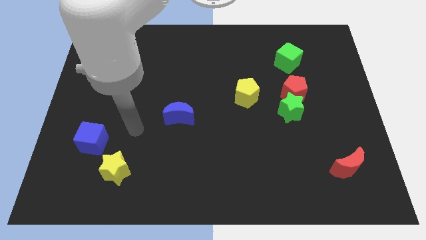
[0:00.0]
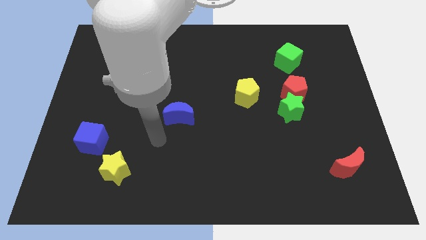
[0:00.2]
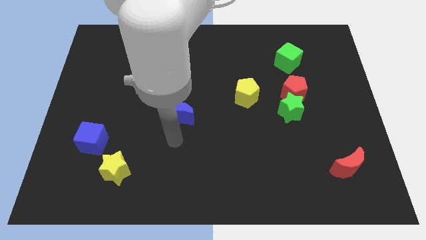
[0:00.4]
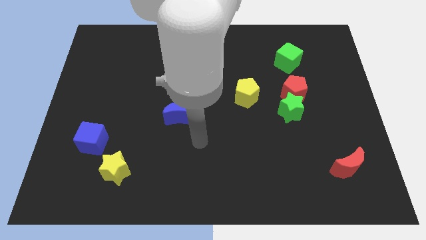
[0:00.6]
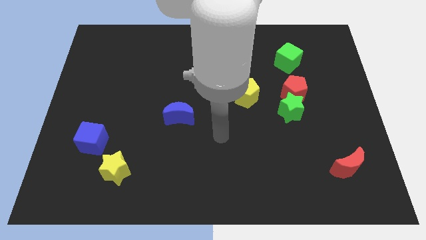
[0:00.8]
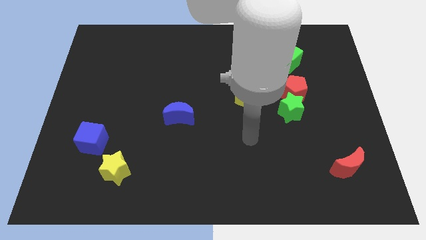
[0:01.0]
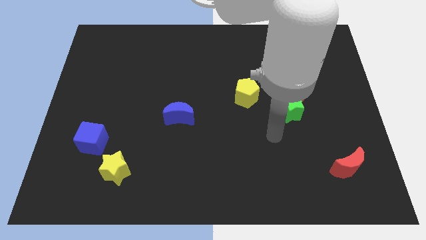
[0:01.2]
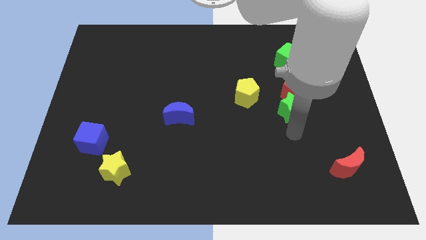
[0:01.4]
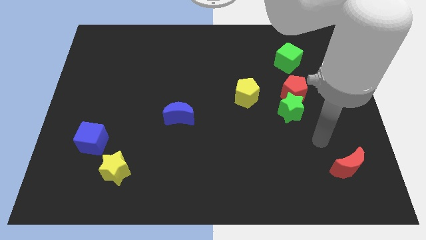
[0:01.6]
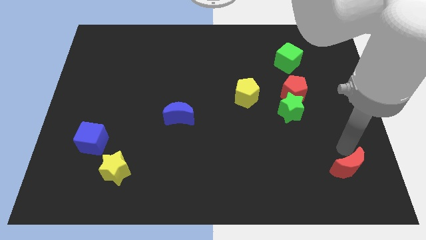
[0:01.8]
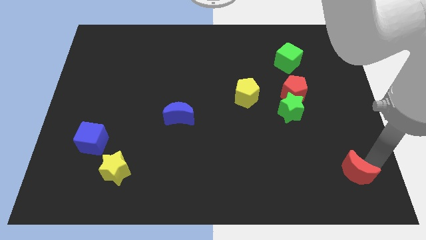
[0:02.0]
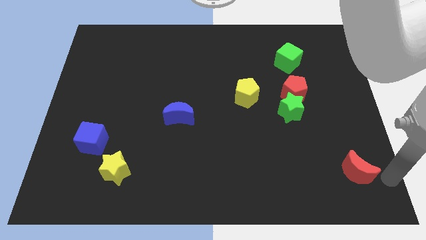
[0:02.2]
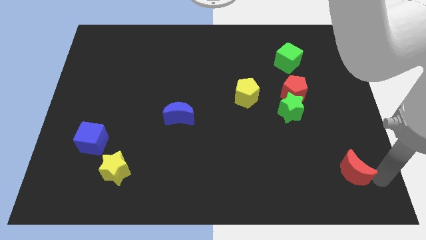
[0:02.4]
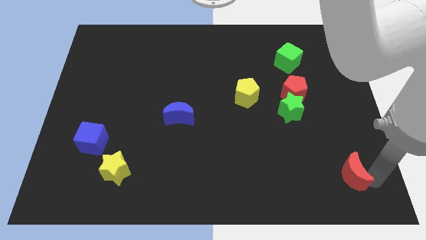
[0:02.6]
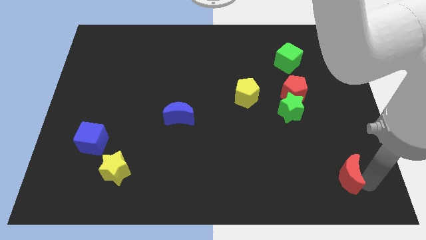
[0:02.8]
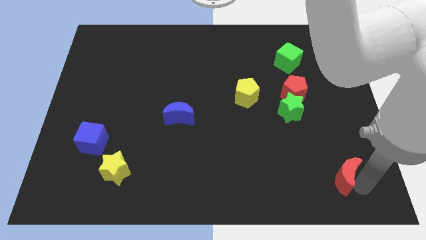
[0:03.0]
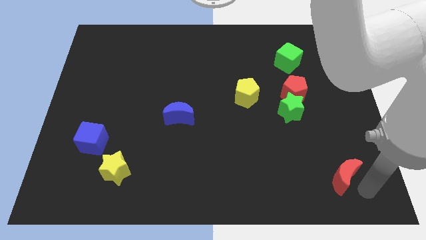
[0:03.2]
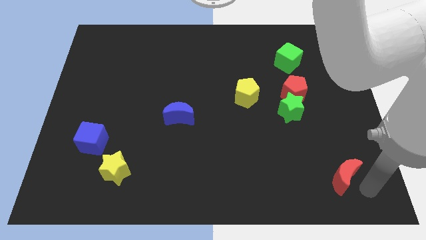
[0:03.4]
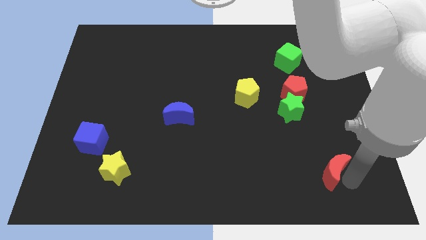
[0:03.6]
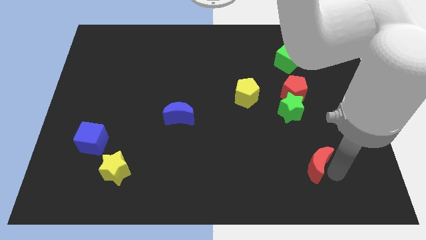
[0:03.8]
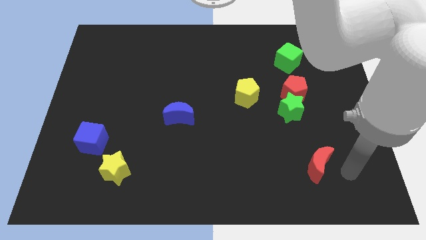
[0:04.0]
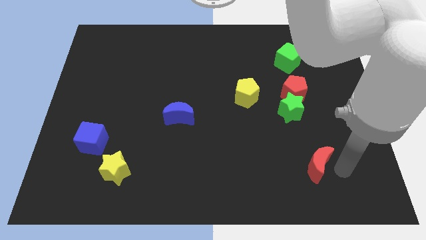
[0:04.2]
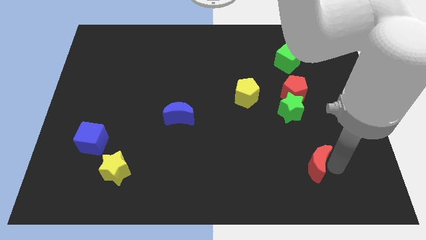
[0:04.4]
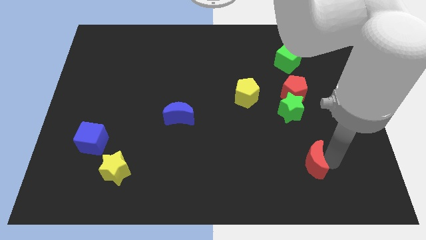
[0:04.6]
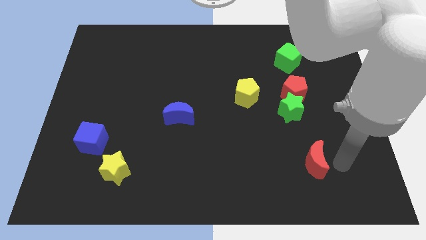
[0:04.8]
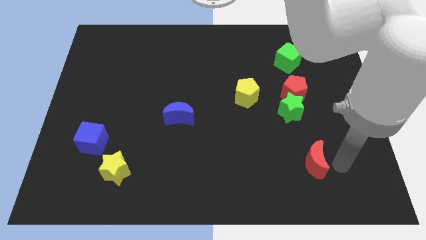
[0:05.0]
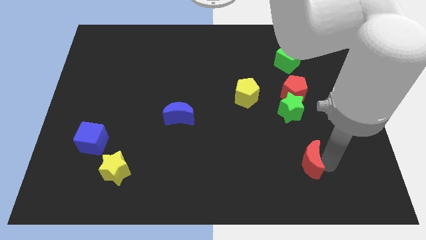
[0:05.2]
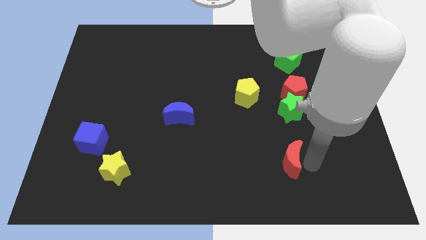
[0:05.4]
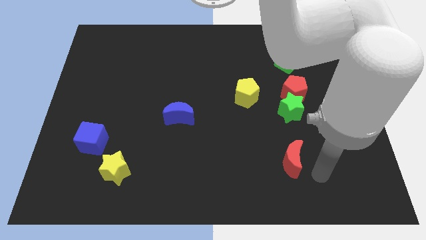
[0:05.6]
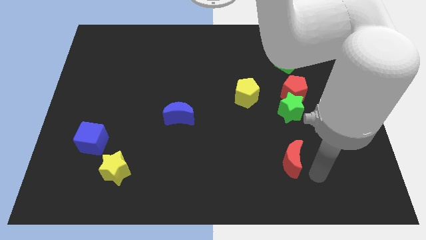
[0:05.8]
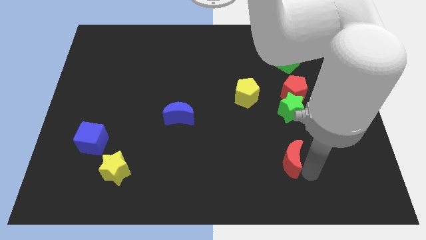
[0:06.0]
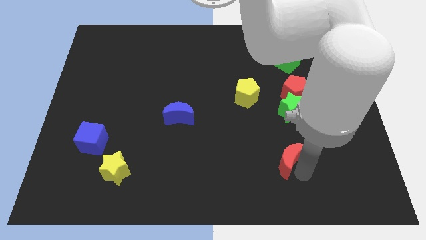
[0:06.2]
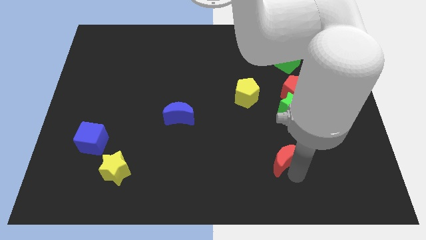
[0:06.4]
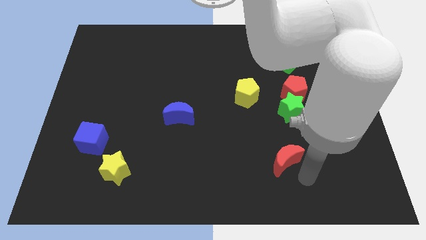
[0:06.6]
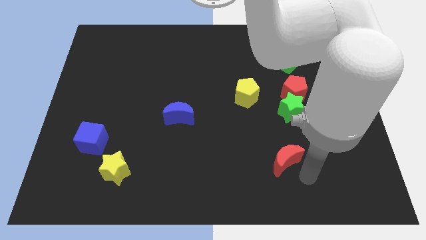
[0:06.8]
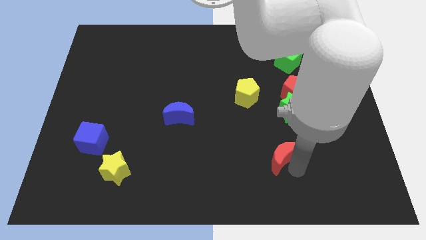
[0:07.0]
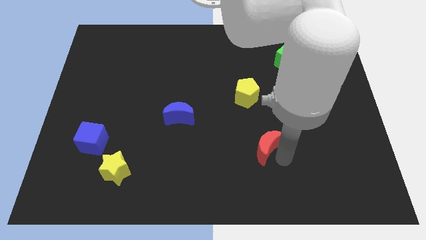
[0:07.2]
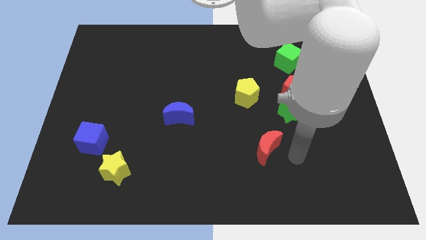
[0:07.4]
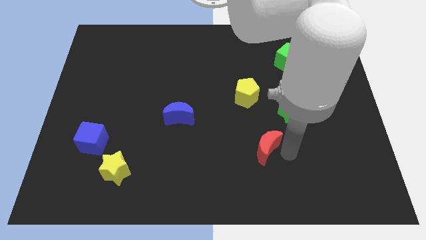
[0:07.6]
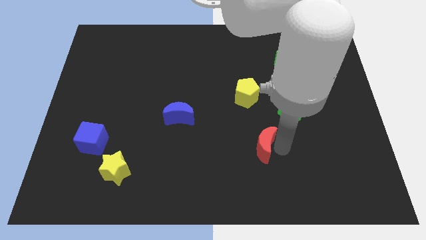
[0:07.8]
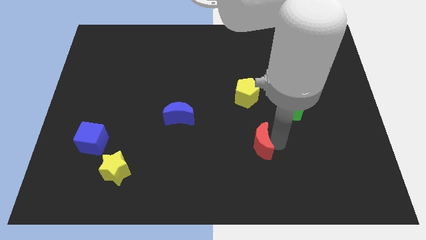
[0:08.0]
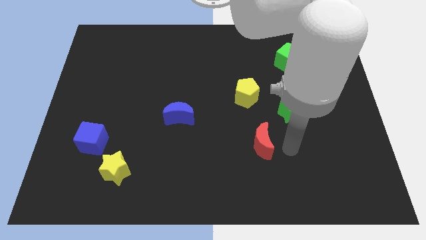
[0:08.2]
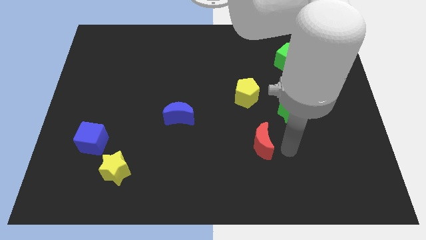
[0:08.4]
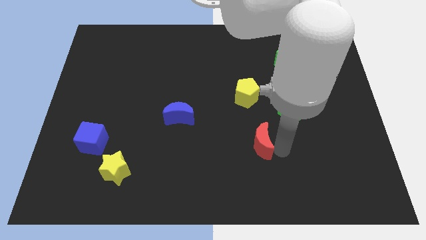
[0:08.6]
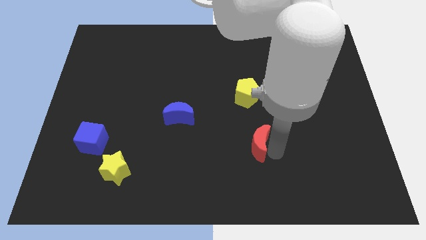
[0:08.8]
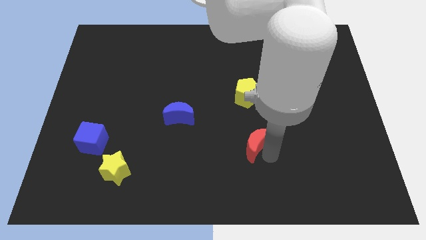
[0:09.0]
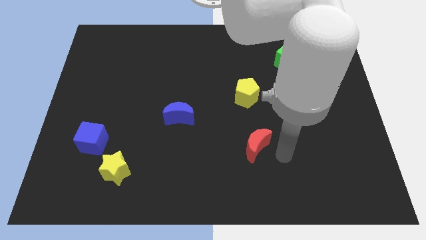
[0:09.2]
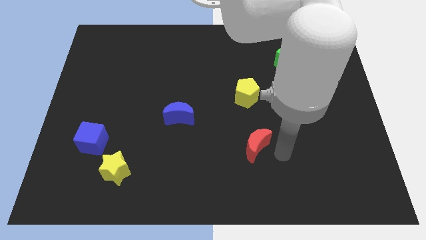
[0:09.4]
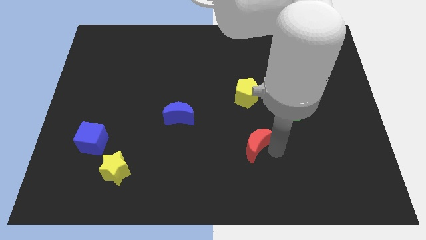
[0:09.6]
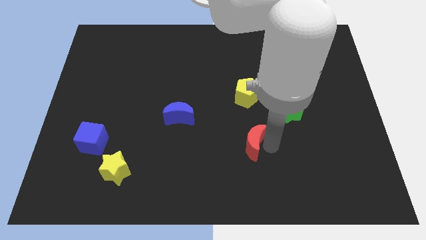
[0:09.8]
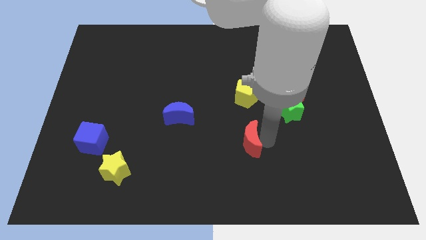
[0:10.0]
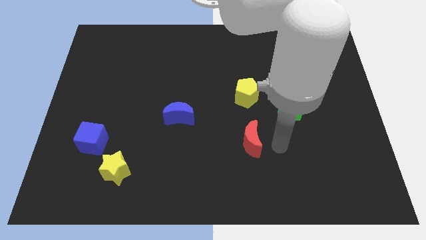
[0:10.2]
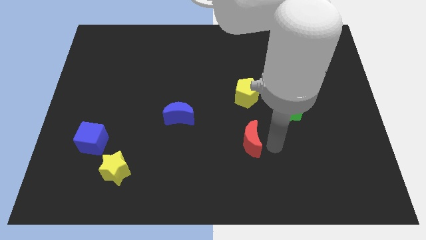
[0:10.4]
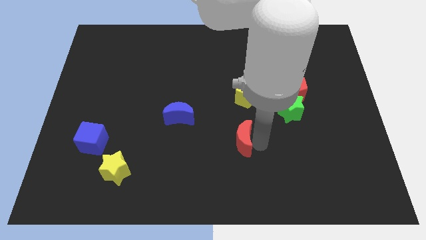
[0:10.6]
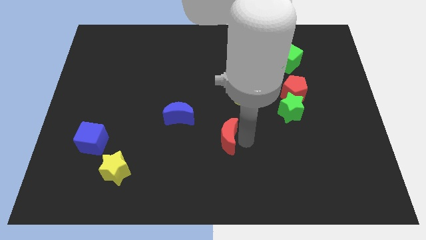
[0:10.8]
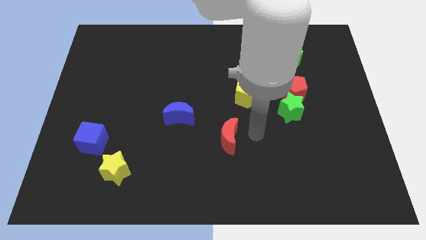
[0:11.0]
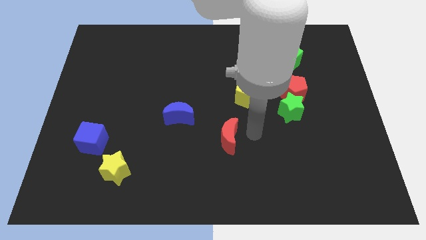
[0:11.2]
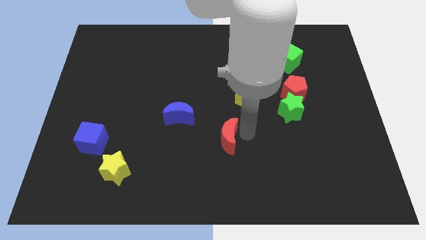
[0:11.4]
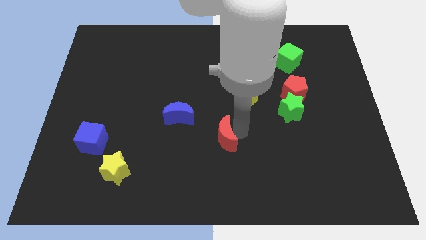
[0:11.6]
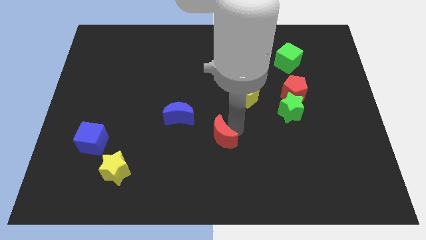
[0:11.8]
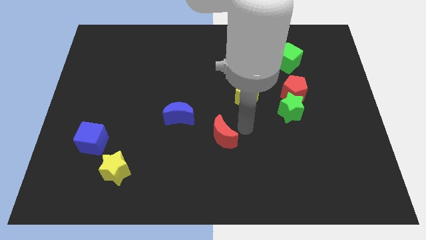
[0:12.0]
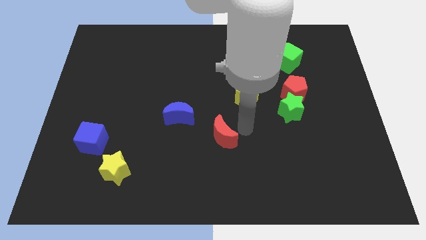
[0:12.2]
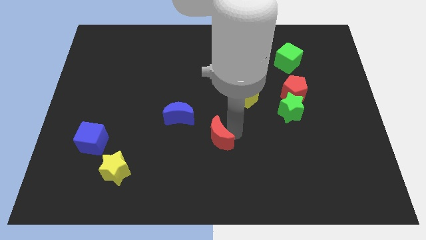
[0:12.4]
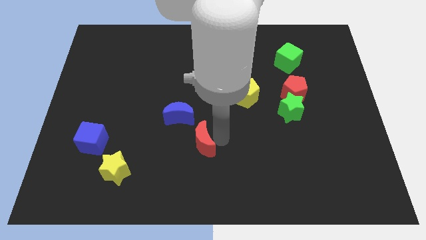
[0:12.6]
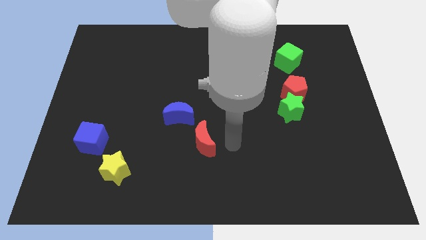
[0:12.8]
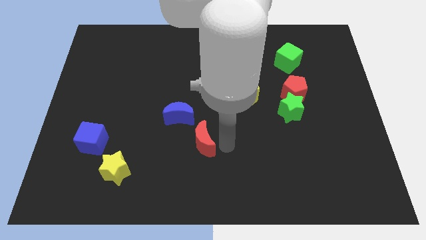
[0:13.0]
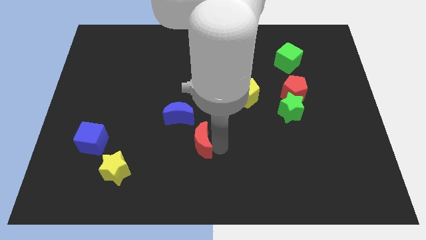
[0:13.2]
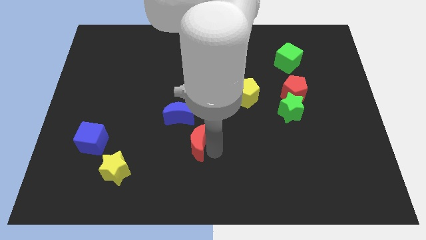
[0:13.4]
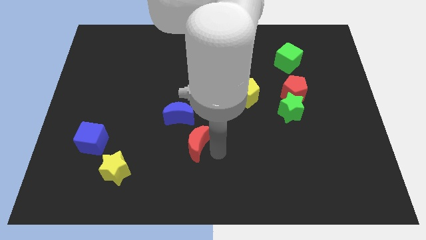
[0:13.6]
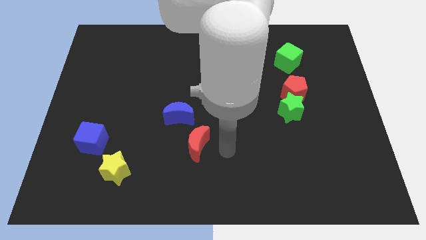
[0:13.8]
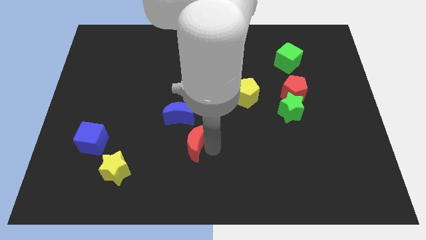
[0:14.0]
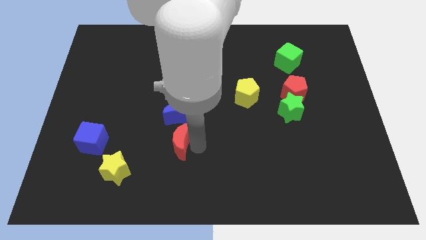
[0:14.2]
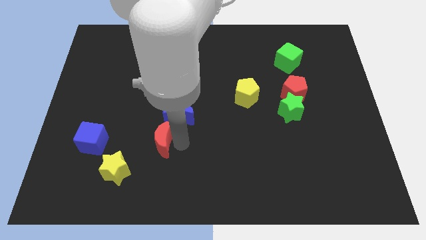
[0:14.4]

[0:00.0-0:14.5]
move the red moon just right of the blue cube
